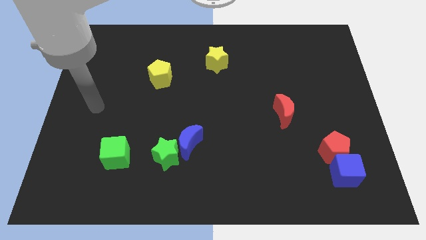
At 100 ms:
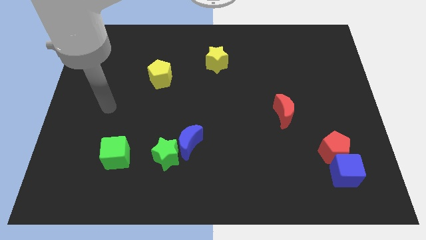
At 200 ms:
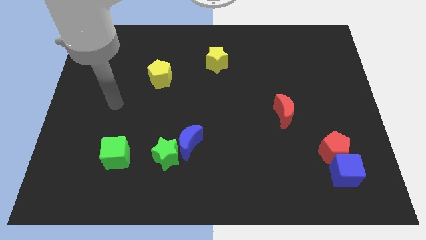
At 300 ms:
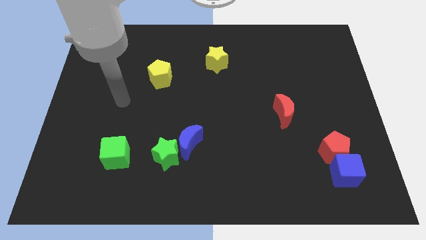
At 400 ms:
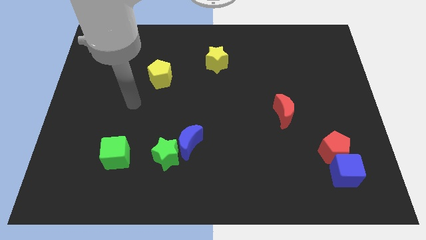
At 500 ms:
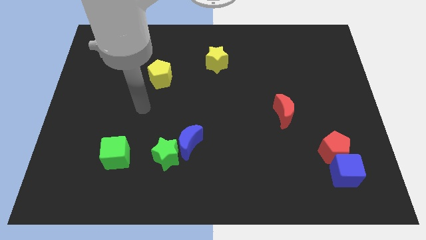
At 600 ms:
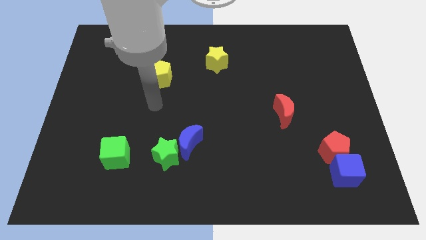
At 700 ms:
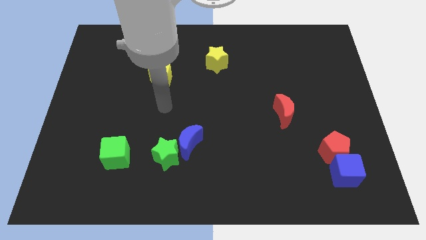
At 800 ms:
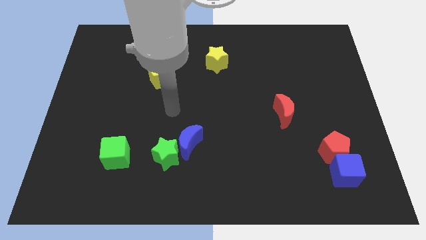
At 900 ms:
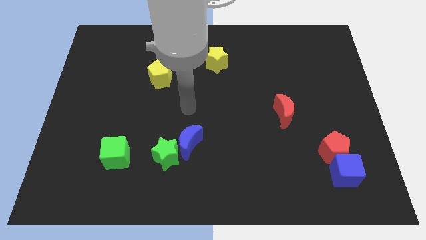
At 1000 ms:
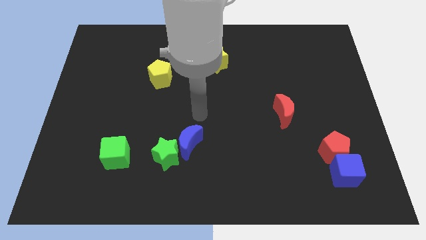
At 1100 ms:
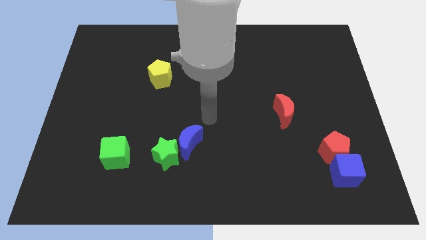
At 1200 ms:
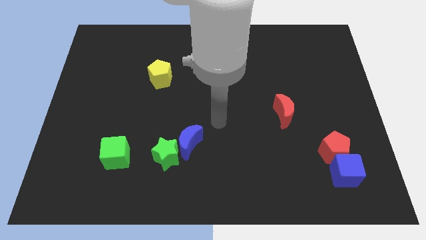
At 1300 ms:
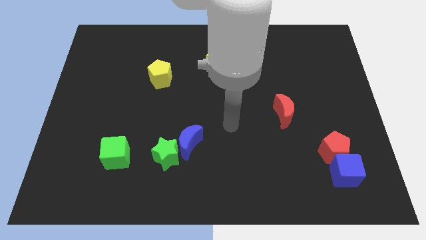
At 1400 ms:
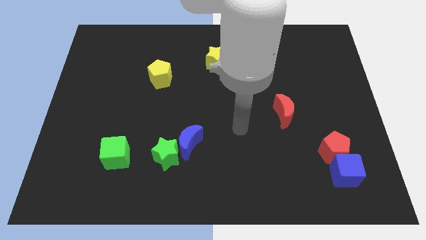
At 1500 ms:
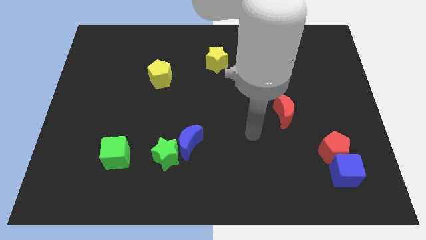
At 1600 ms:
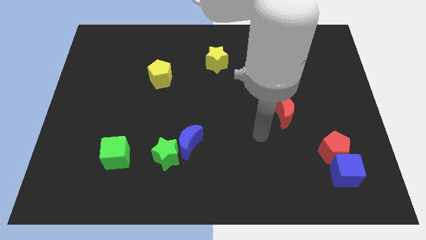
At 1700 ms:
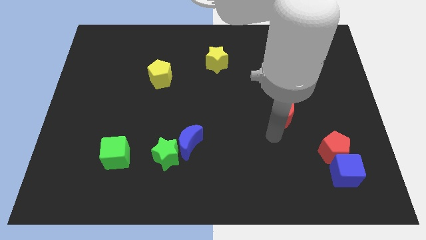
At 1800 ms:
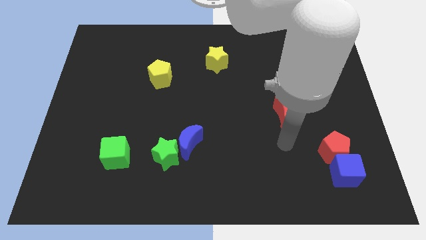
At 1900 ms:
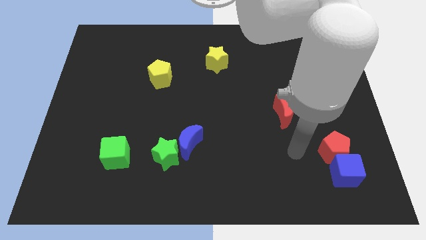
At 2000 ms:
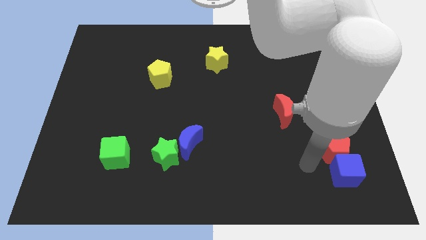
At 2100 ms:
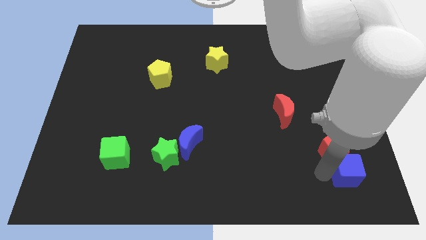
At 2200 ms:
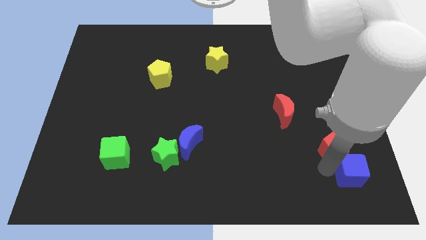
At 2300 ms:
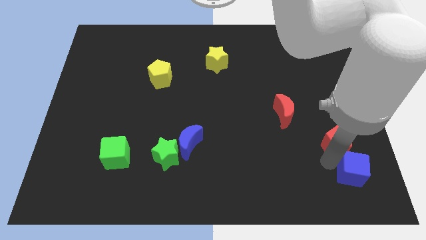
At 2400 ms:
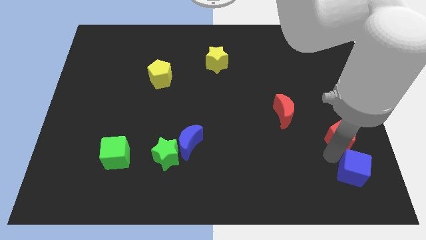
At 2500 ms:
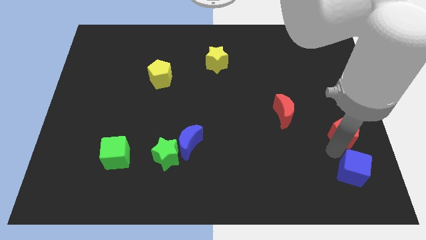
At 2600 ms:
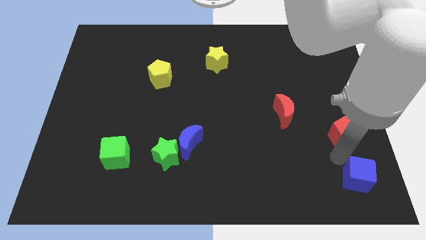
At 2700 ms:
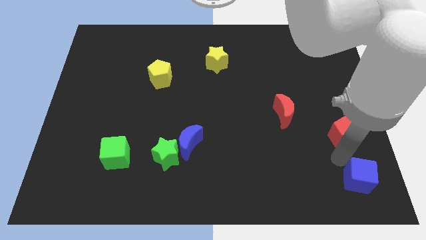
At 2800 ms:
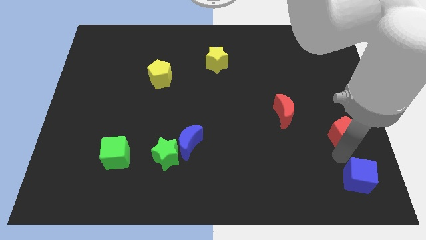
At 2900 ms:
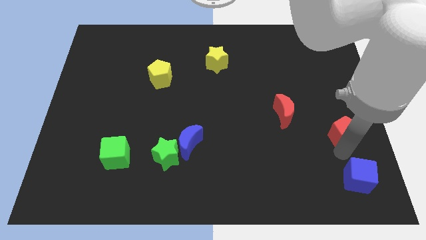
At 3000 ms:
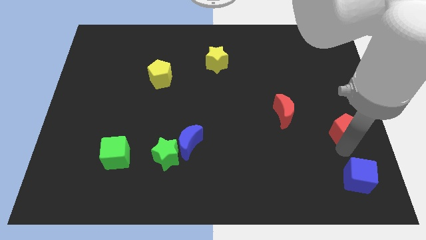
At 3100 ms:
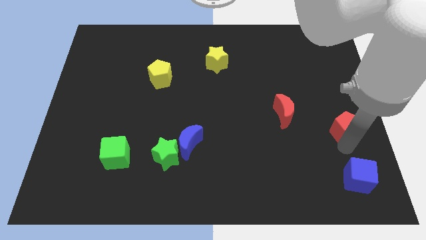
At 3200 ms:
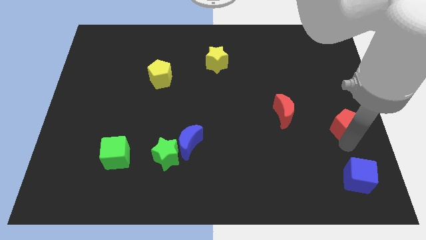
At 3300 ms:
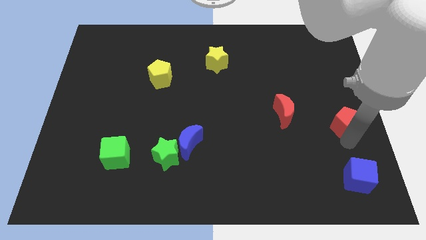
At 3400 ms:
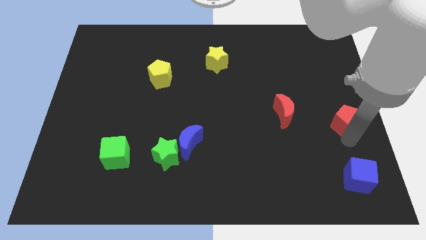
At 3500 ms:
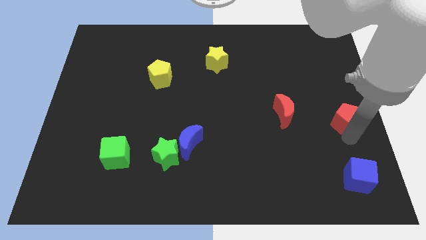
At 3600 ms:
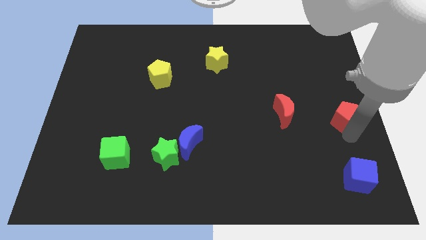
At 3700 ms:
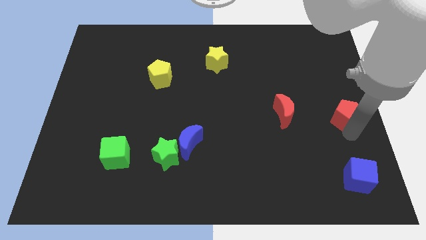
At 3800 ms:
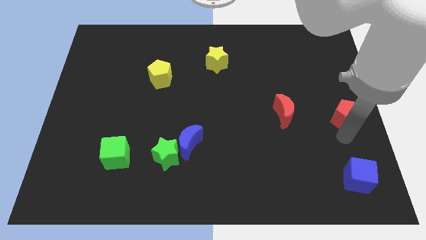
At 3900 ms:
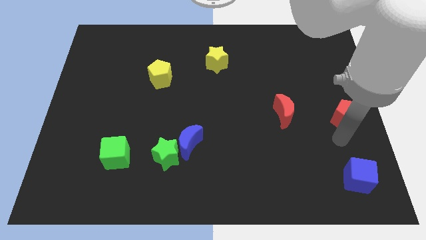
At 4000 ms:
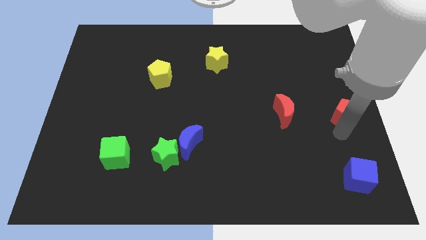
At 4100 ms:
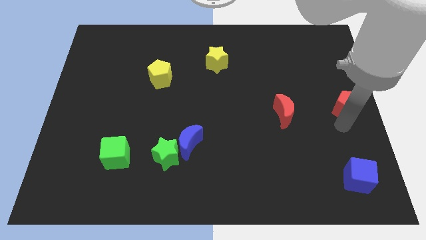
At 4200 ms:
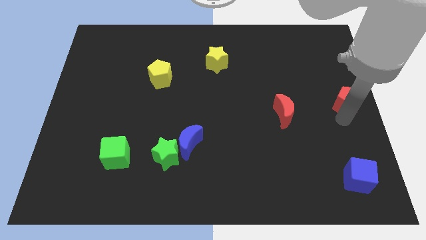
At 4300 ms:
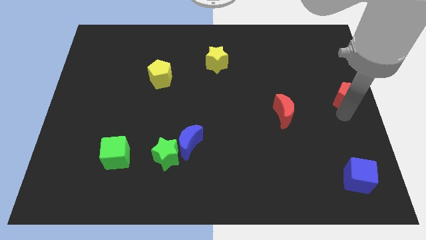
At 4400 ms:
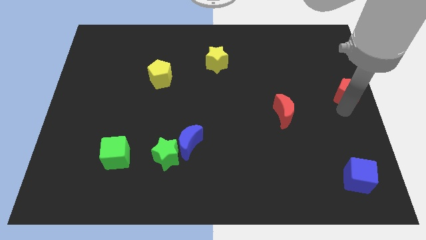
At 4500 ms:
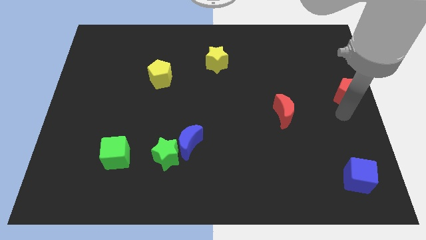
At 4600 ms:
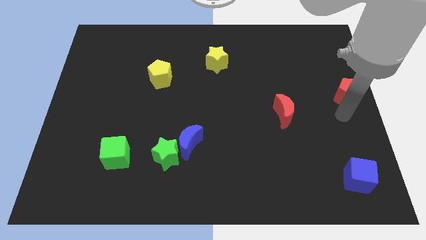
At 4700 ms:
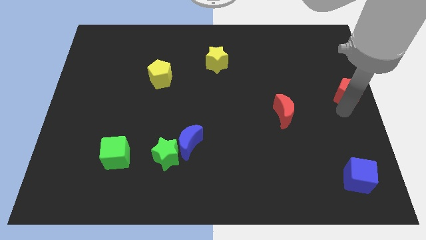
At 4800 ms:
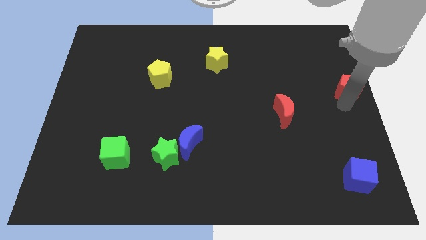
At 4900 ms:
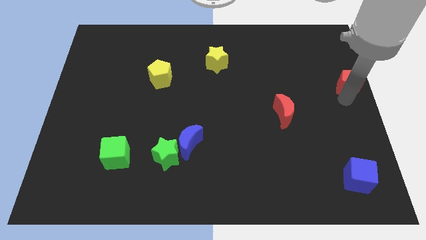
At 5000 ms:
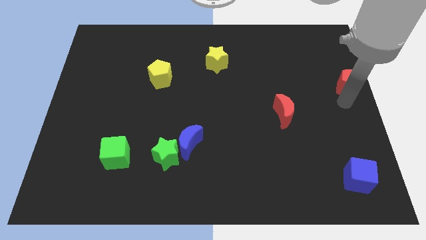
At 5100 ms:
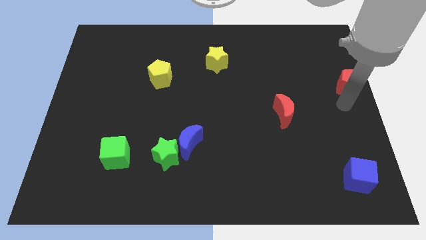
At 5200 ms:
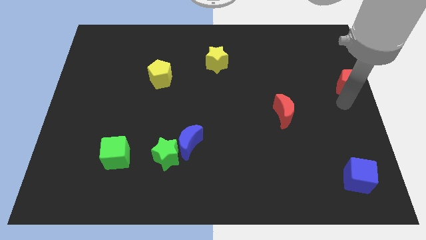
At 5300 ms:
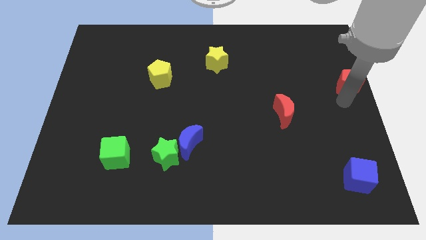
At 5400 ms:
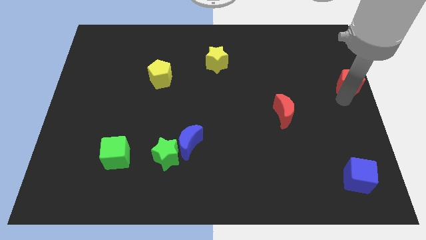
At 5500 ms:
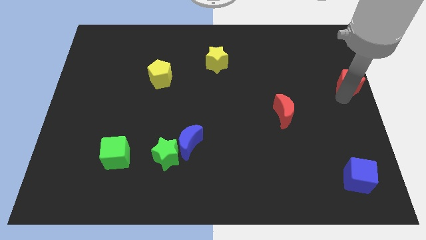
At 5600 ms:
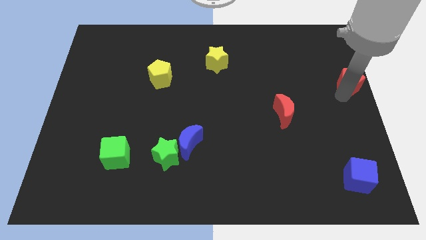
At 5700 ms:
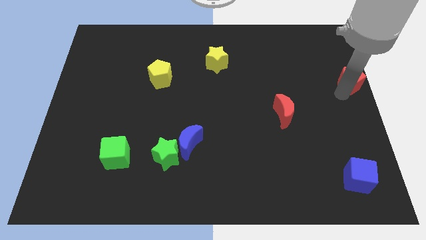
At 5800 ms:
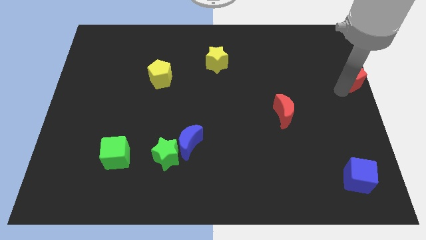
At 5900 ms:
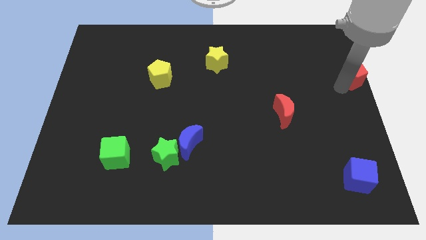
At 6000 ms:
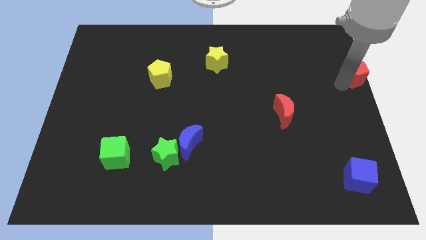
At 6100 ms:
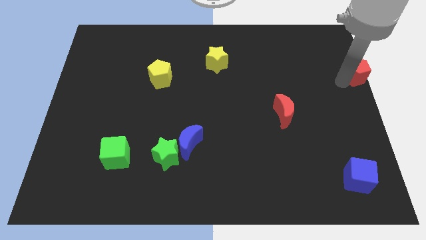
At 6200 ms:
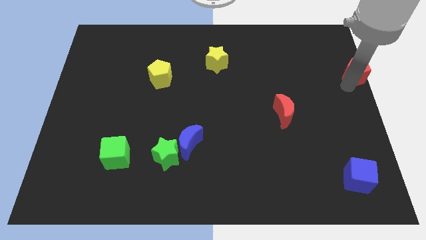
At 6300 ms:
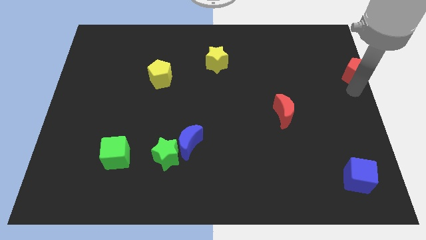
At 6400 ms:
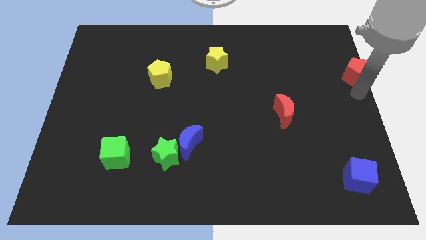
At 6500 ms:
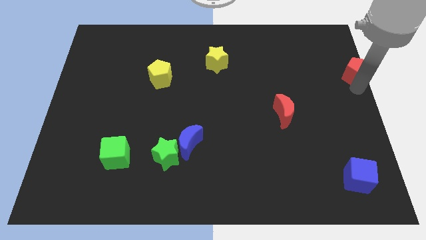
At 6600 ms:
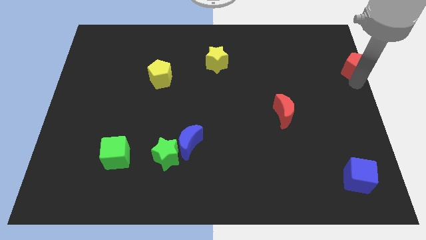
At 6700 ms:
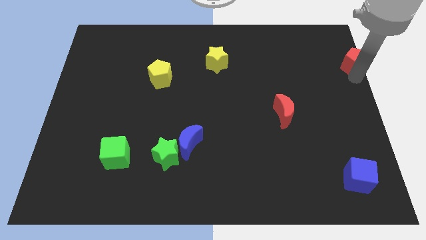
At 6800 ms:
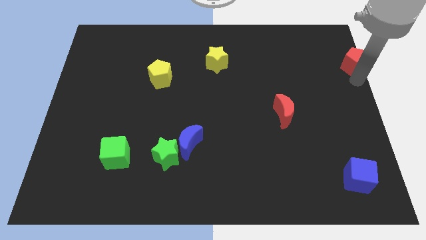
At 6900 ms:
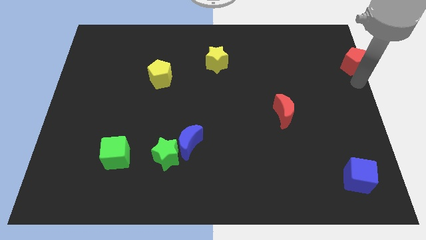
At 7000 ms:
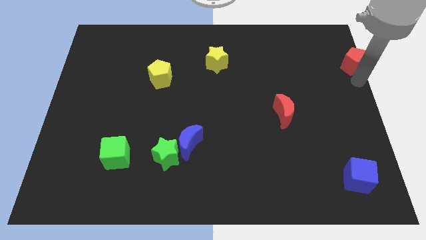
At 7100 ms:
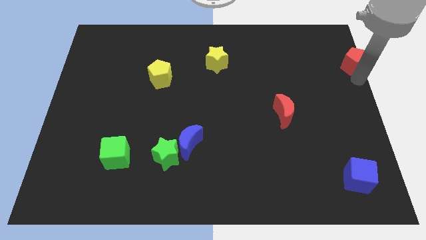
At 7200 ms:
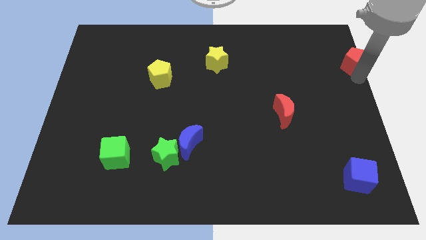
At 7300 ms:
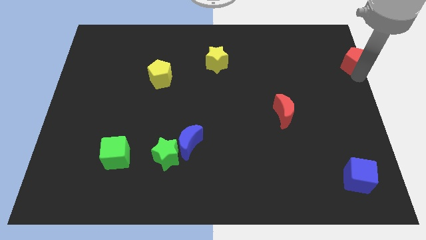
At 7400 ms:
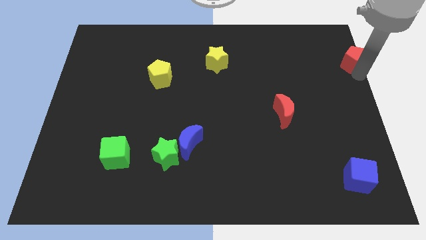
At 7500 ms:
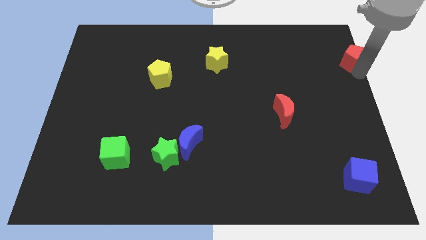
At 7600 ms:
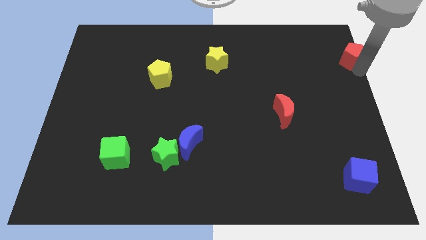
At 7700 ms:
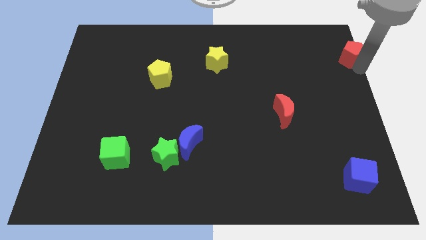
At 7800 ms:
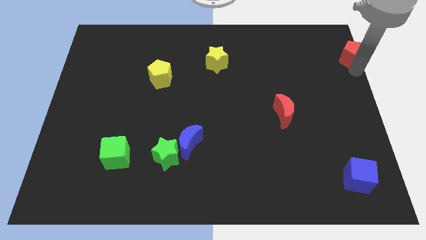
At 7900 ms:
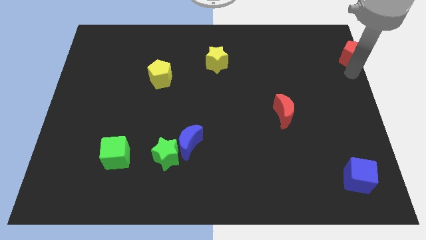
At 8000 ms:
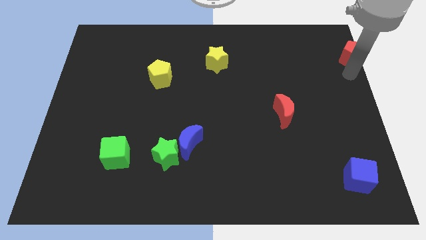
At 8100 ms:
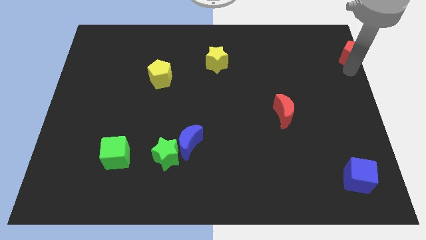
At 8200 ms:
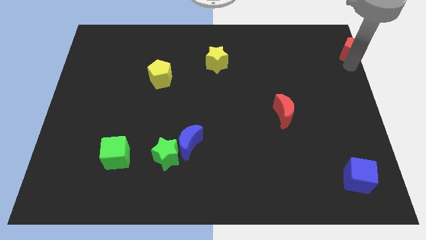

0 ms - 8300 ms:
put the red pentagon to the top right

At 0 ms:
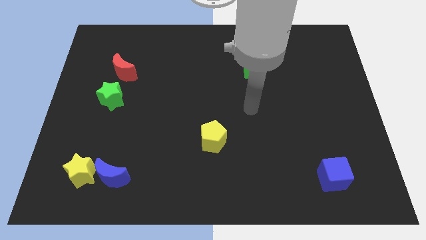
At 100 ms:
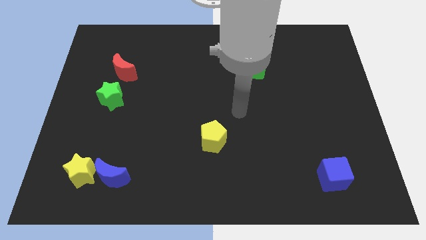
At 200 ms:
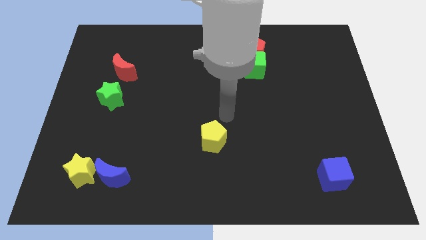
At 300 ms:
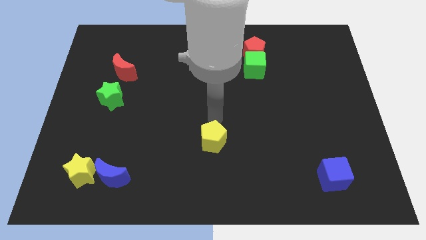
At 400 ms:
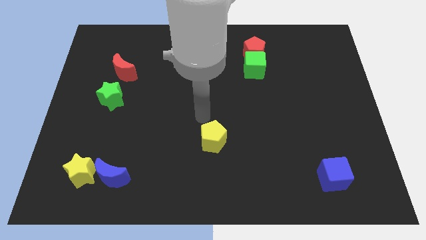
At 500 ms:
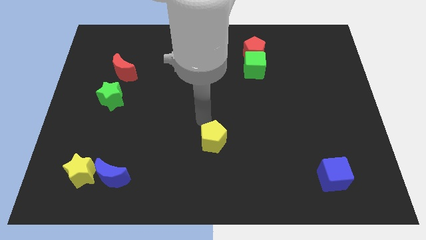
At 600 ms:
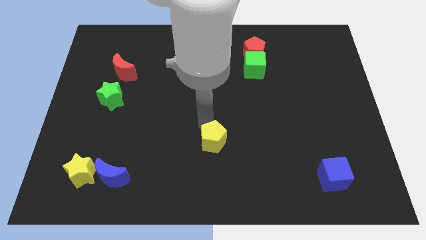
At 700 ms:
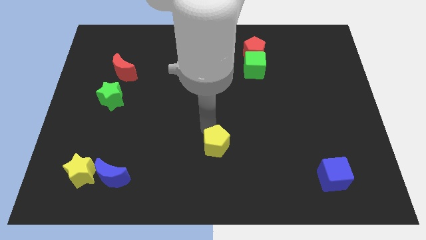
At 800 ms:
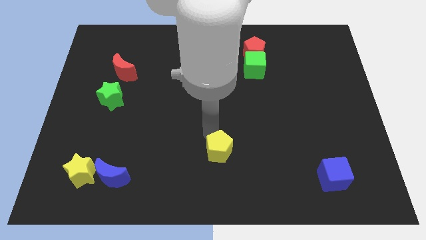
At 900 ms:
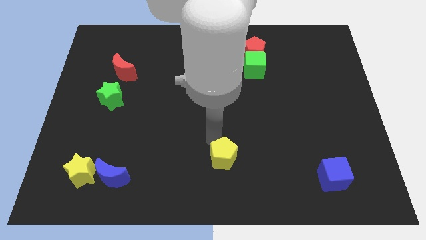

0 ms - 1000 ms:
push the yellow pentagon to the bottom
